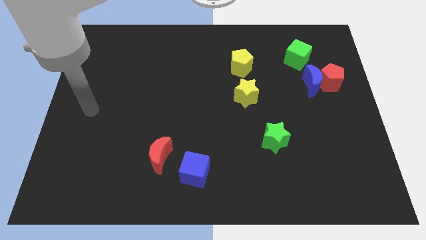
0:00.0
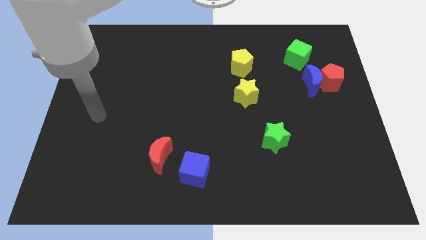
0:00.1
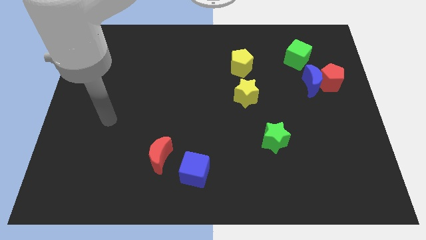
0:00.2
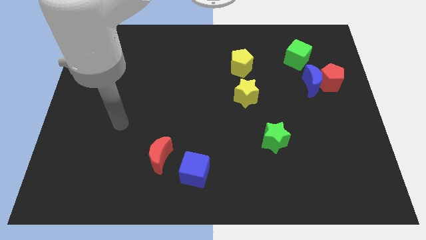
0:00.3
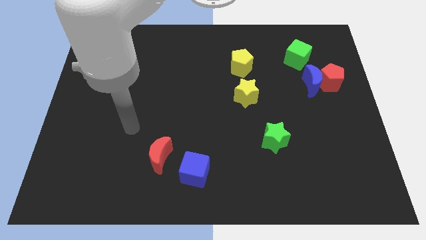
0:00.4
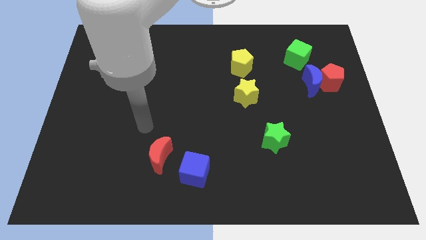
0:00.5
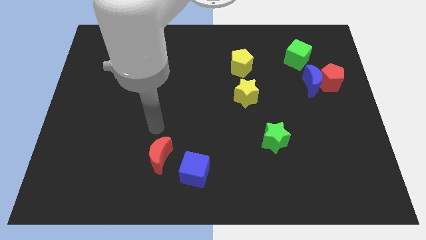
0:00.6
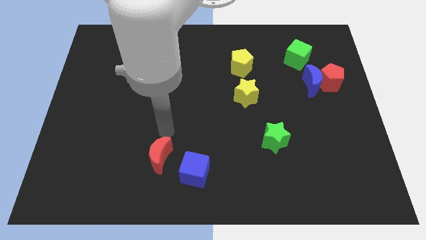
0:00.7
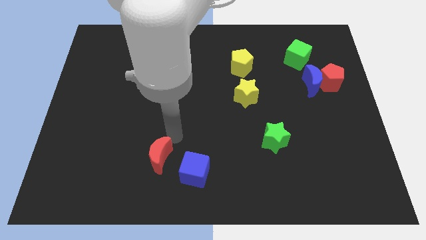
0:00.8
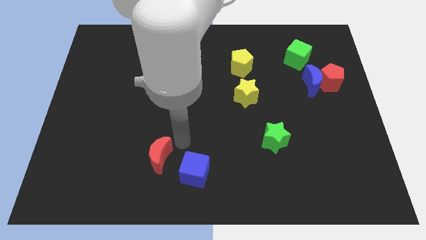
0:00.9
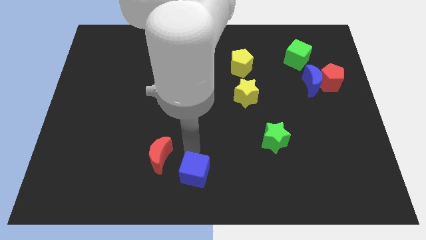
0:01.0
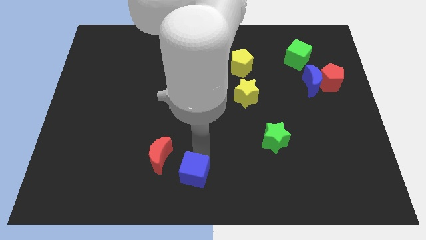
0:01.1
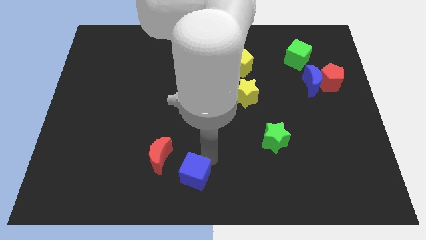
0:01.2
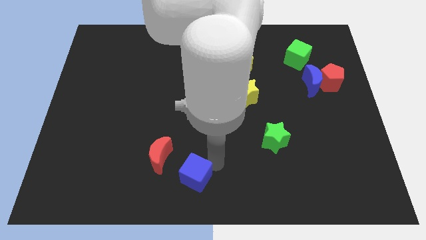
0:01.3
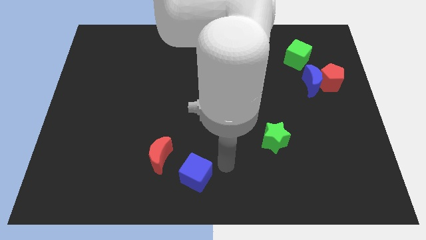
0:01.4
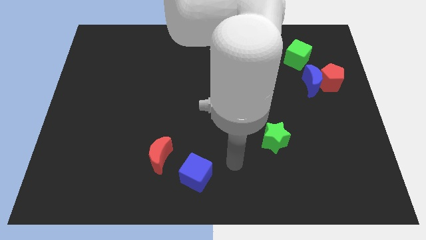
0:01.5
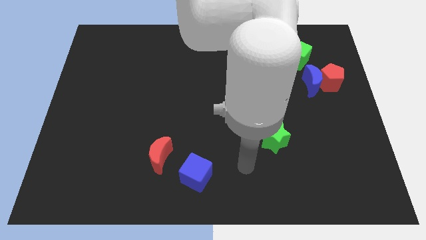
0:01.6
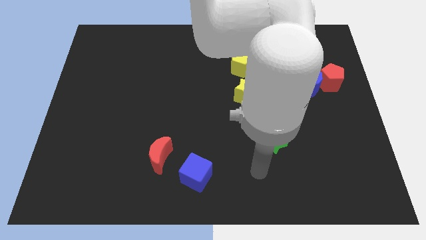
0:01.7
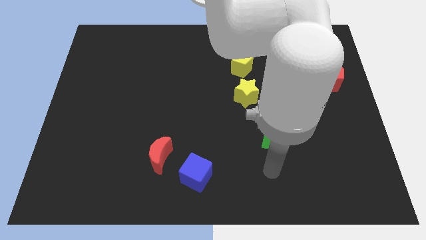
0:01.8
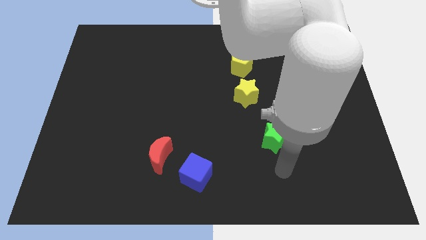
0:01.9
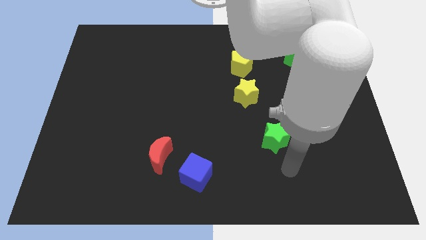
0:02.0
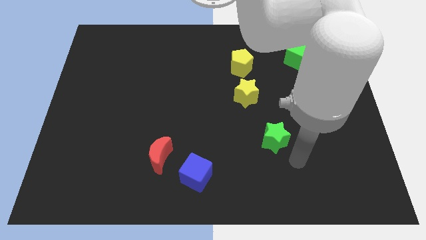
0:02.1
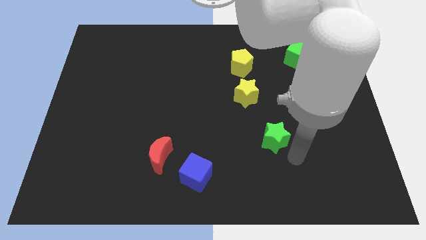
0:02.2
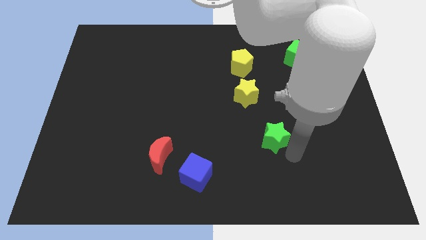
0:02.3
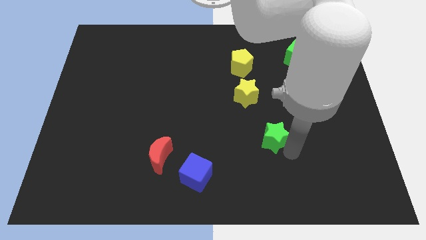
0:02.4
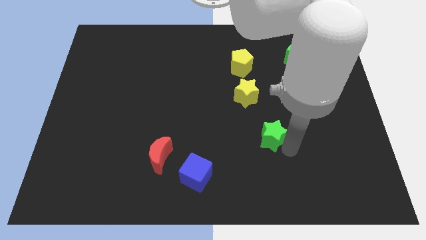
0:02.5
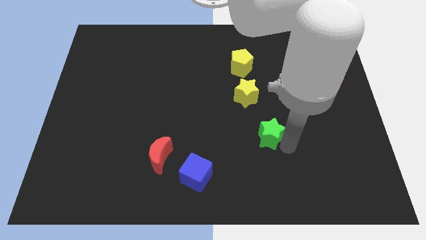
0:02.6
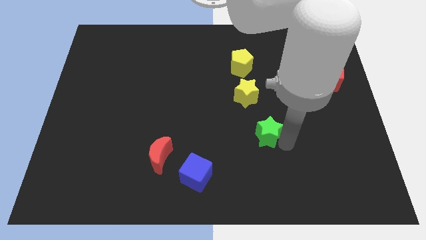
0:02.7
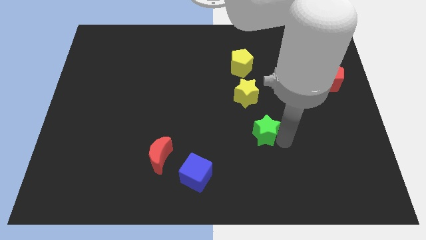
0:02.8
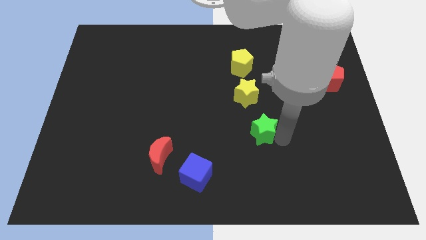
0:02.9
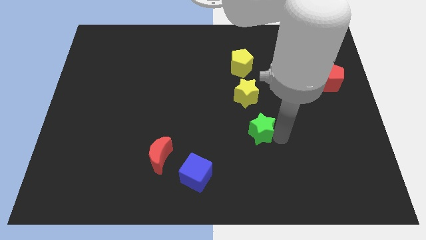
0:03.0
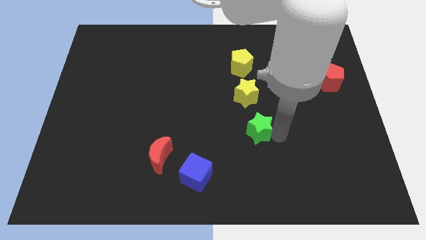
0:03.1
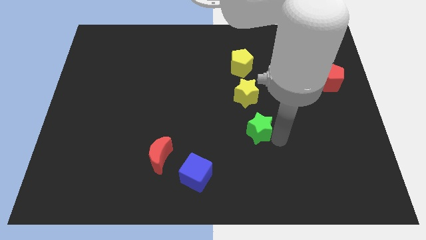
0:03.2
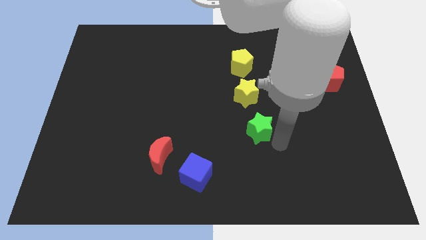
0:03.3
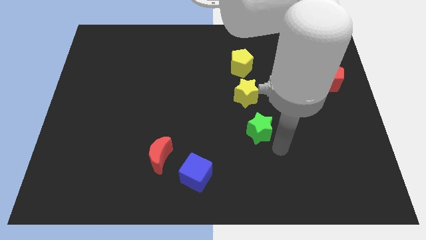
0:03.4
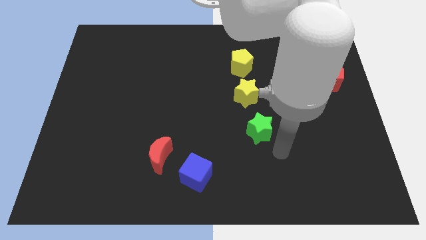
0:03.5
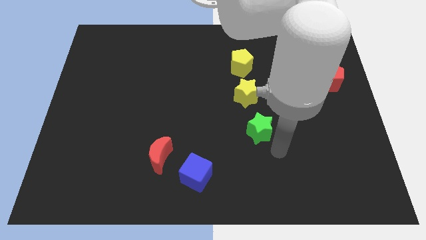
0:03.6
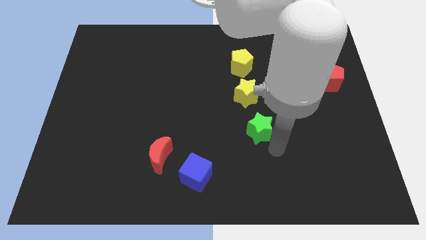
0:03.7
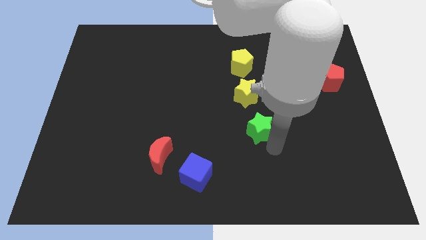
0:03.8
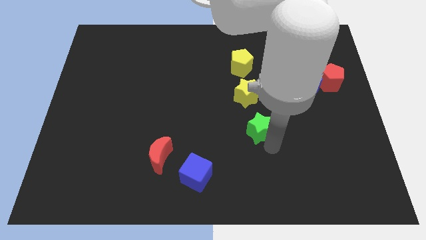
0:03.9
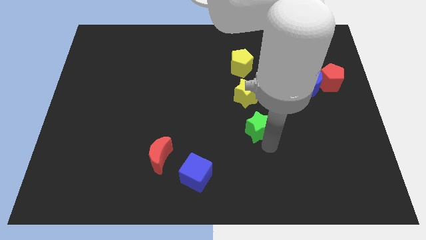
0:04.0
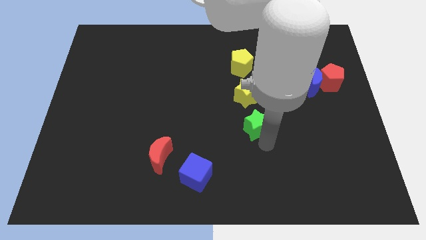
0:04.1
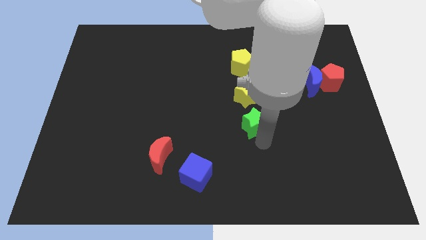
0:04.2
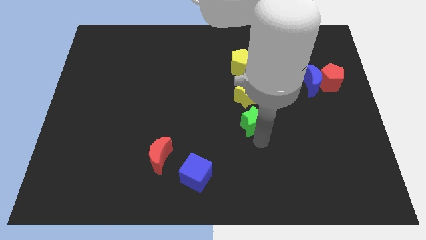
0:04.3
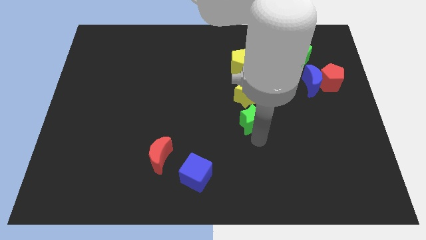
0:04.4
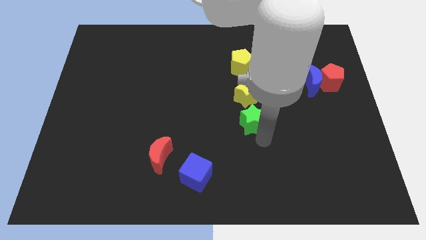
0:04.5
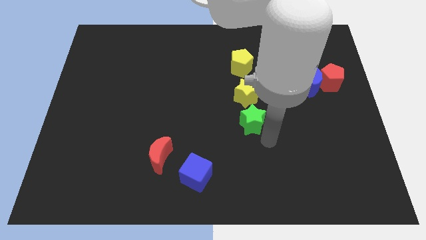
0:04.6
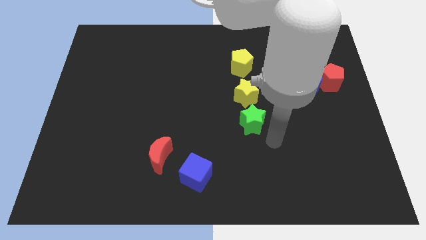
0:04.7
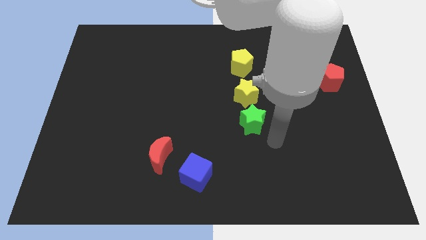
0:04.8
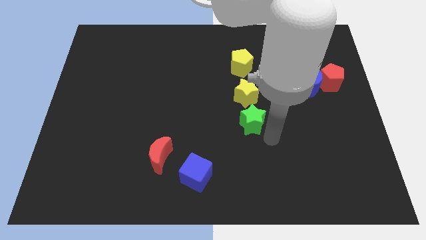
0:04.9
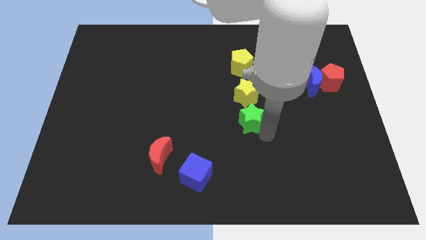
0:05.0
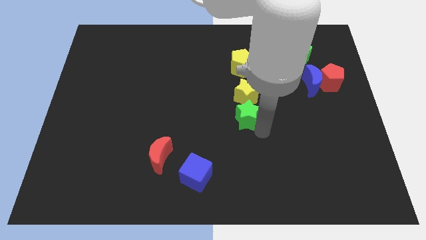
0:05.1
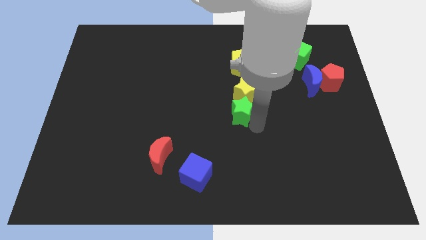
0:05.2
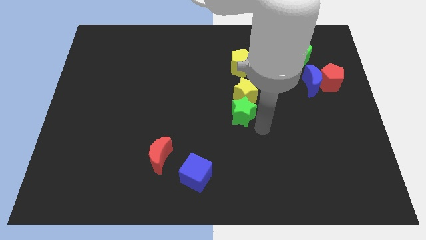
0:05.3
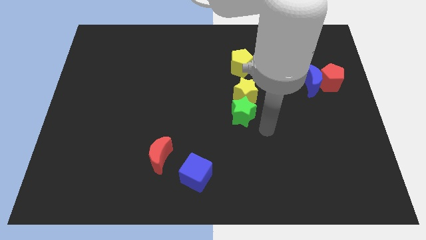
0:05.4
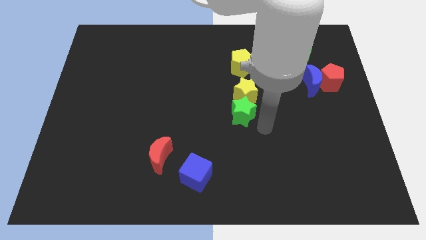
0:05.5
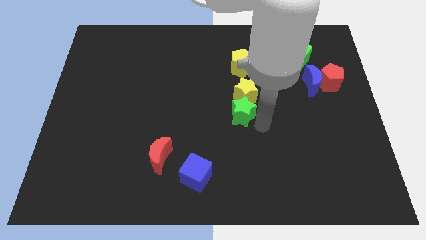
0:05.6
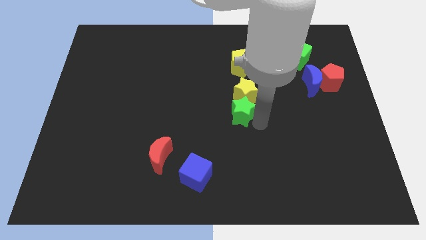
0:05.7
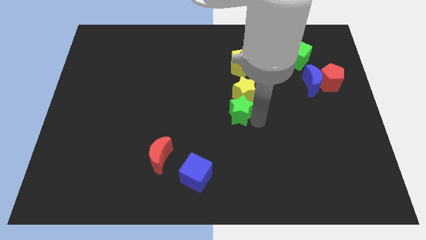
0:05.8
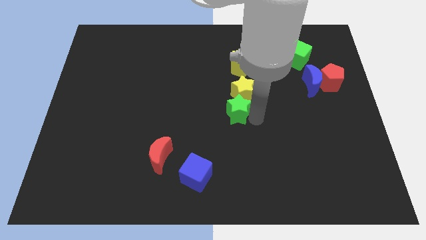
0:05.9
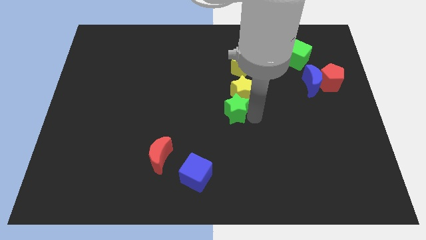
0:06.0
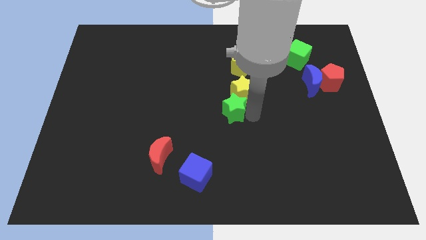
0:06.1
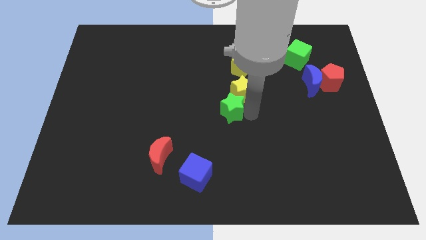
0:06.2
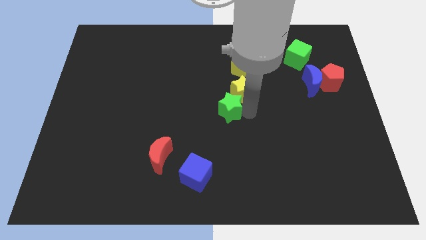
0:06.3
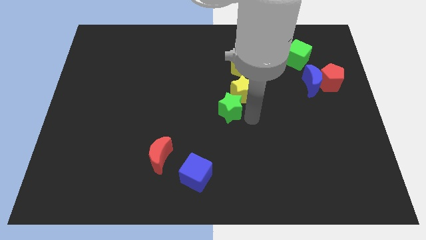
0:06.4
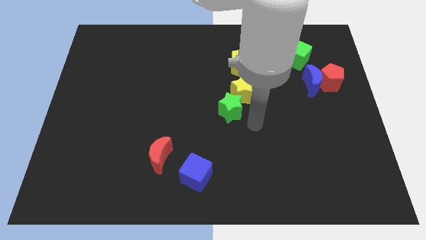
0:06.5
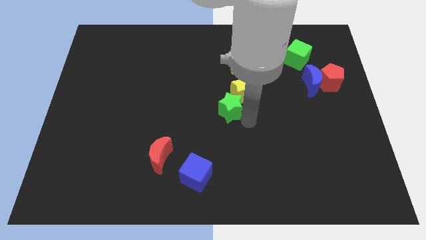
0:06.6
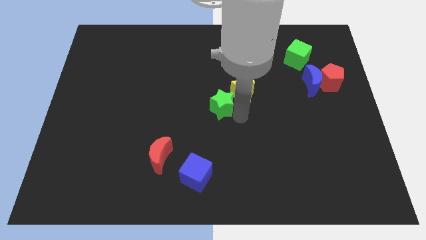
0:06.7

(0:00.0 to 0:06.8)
slide the green star left of the yellow star

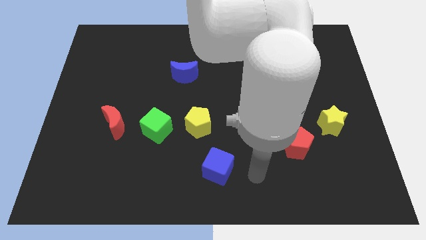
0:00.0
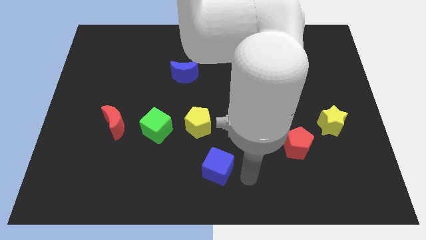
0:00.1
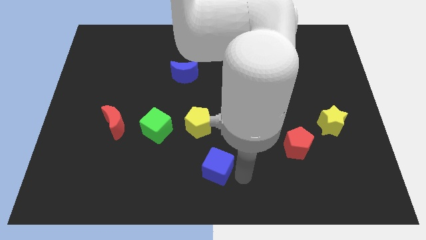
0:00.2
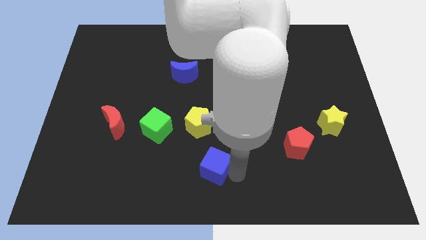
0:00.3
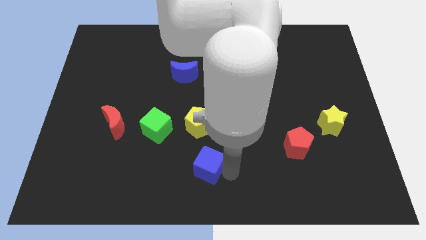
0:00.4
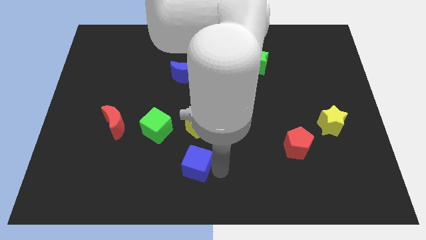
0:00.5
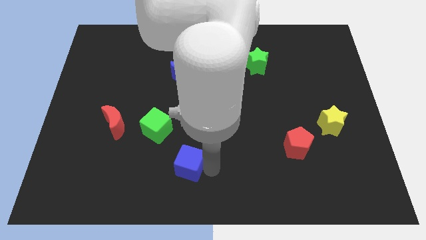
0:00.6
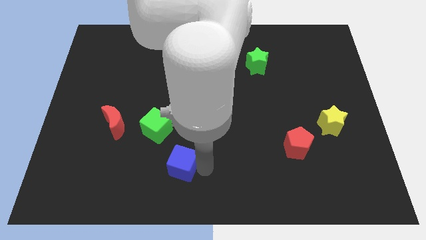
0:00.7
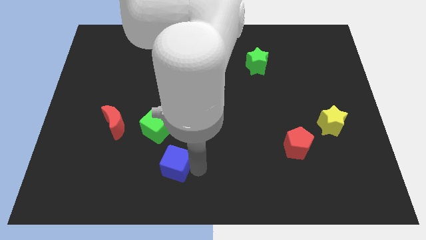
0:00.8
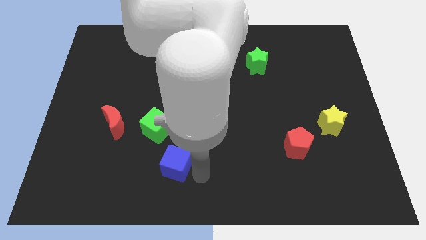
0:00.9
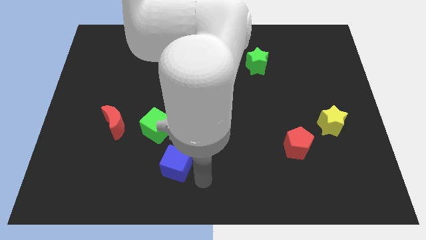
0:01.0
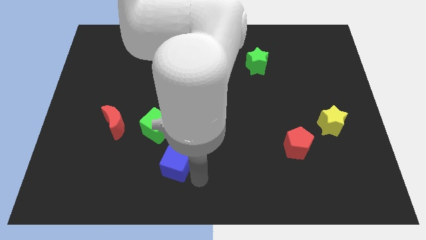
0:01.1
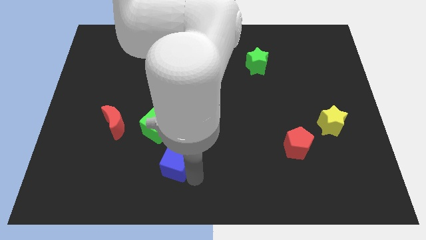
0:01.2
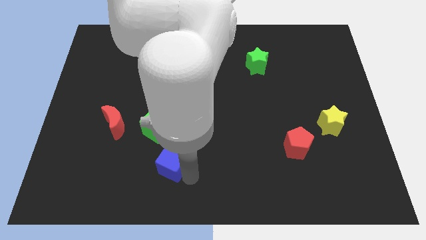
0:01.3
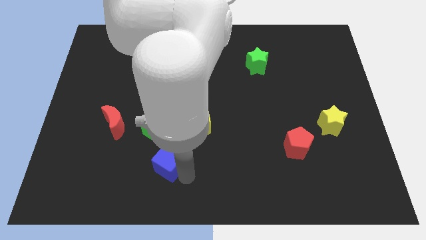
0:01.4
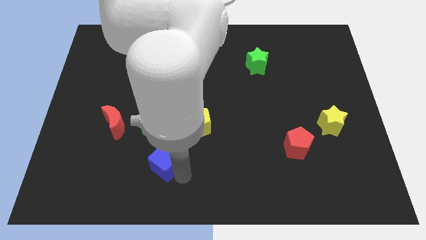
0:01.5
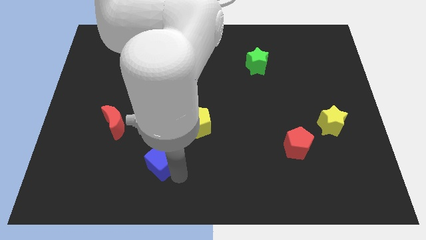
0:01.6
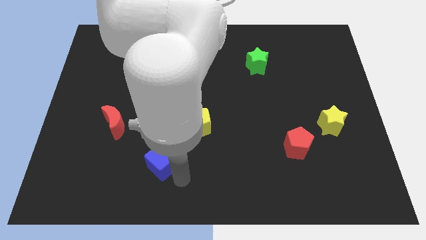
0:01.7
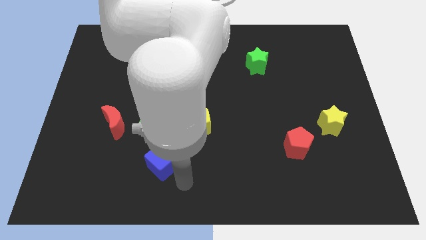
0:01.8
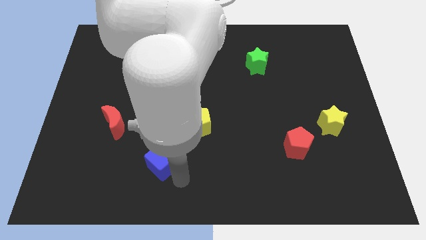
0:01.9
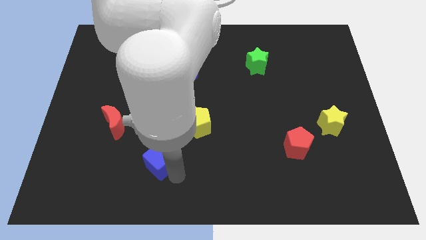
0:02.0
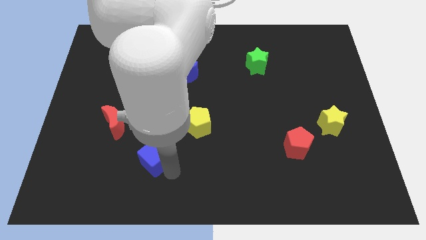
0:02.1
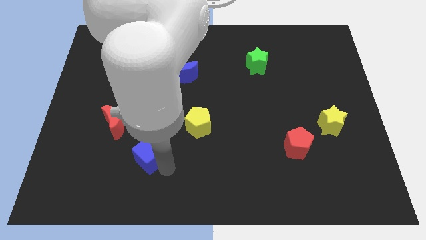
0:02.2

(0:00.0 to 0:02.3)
slide the blue cube diagonally down and to the left of the green cube
